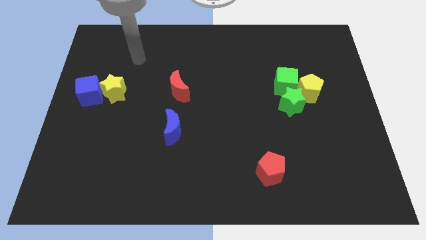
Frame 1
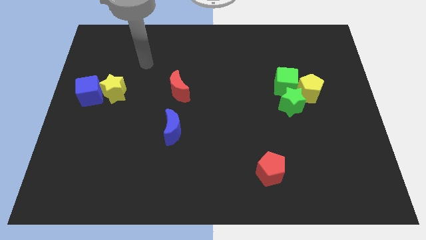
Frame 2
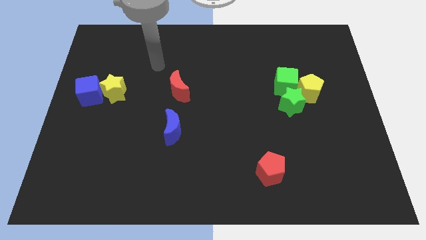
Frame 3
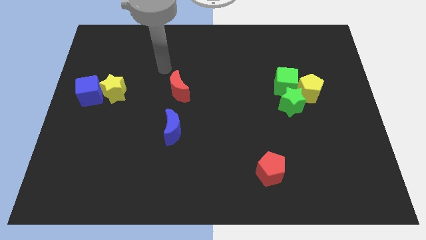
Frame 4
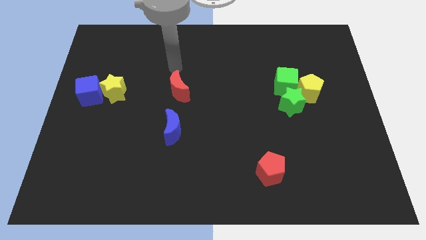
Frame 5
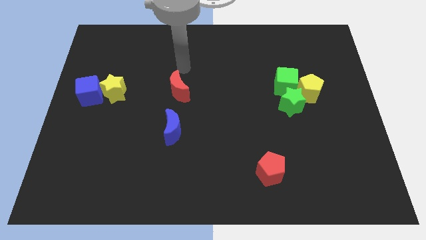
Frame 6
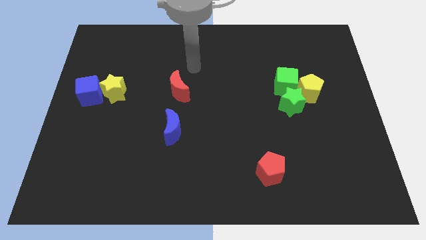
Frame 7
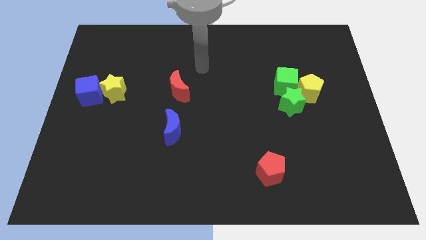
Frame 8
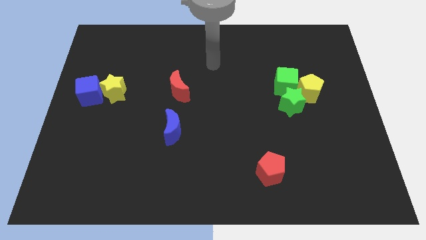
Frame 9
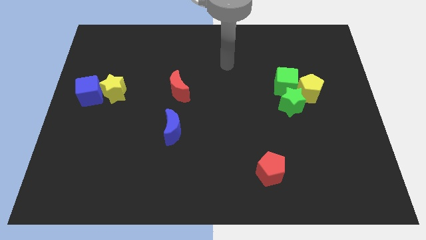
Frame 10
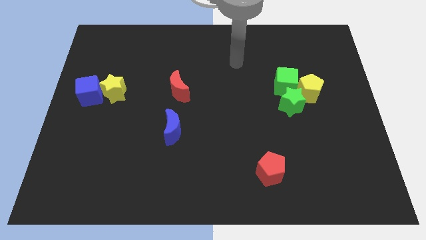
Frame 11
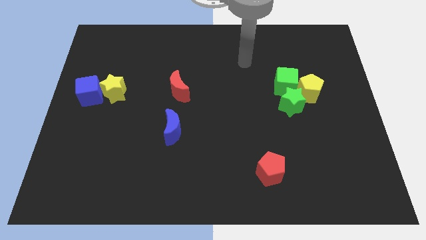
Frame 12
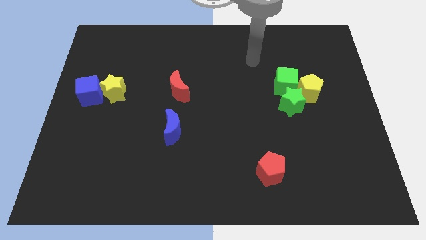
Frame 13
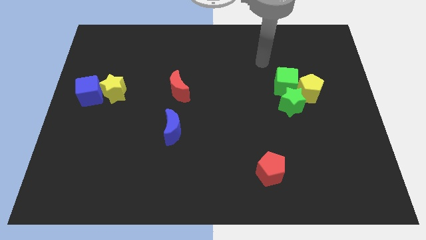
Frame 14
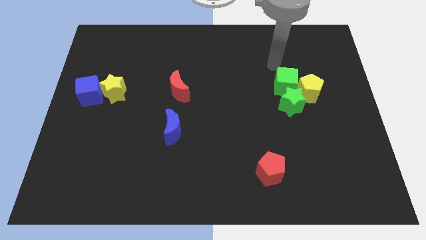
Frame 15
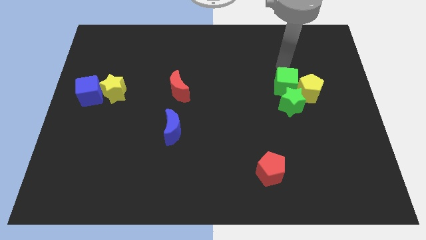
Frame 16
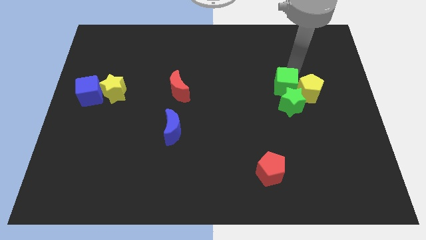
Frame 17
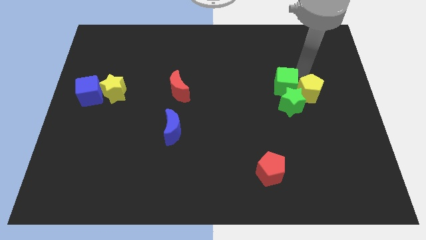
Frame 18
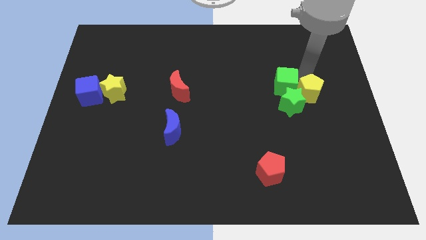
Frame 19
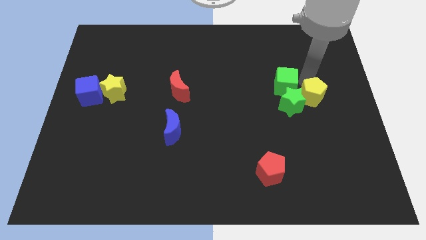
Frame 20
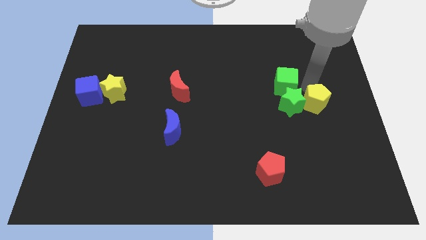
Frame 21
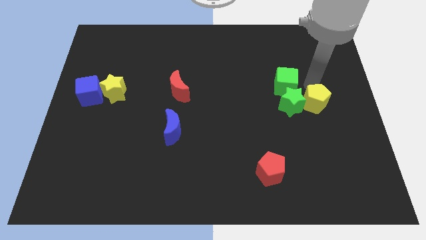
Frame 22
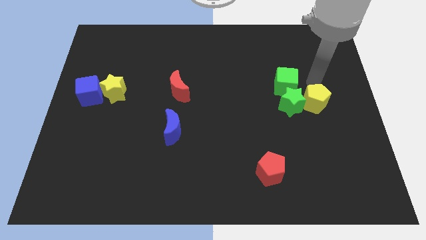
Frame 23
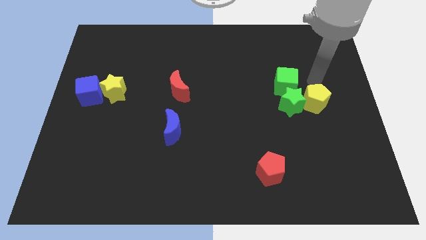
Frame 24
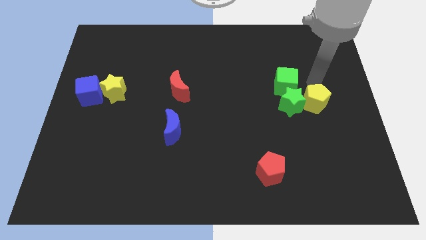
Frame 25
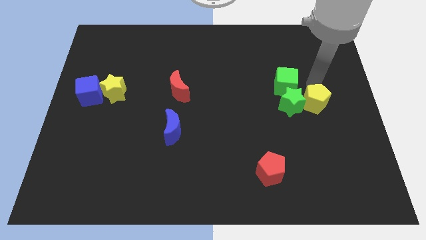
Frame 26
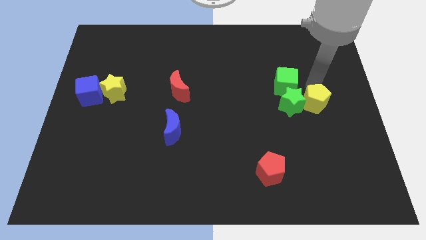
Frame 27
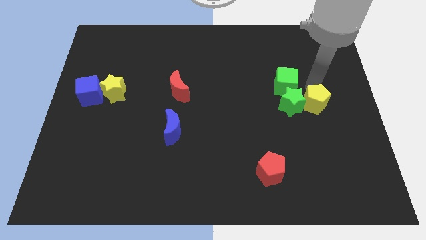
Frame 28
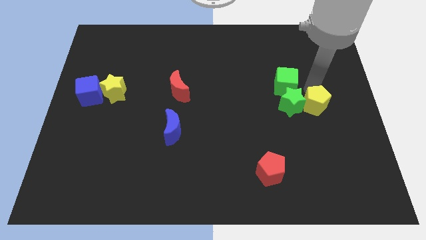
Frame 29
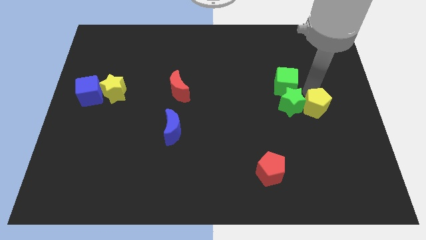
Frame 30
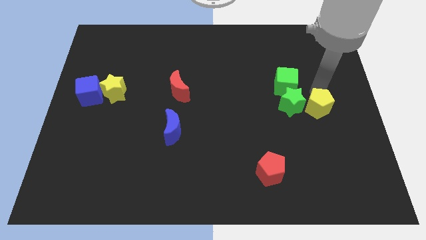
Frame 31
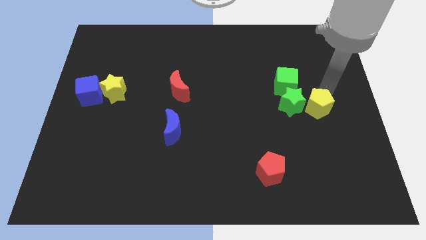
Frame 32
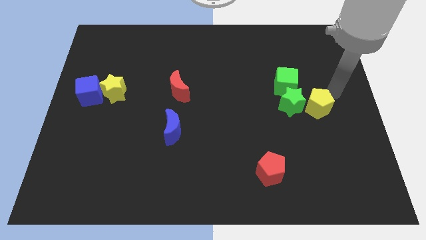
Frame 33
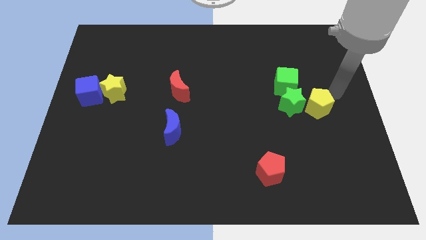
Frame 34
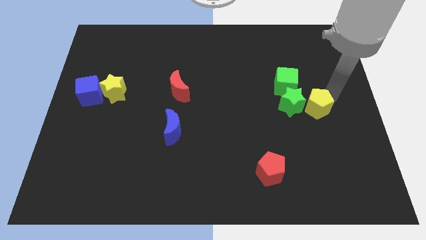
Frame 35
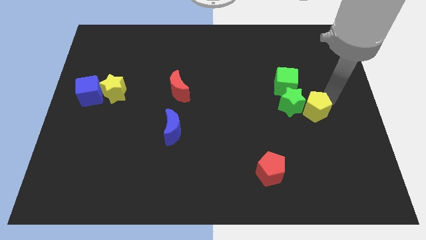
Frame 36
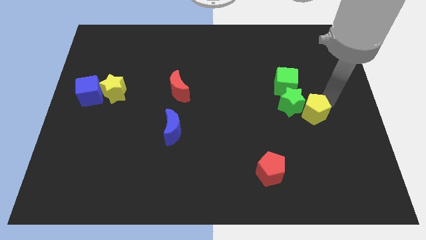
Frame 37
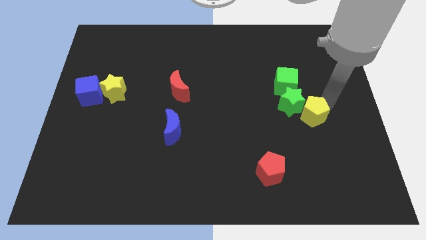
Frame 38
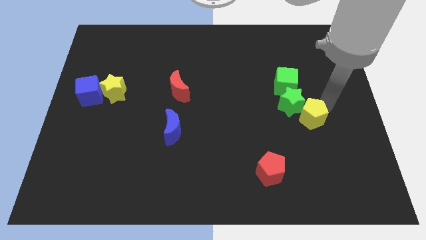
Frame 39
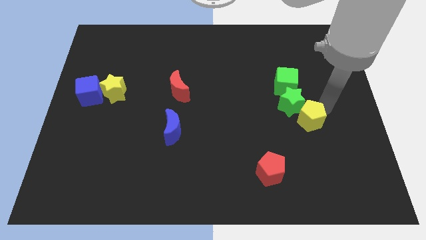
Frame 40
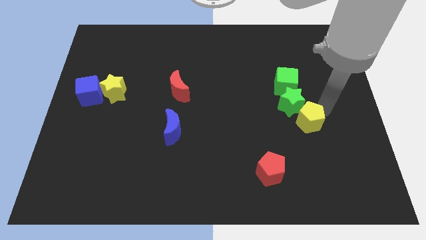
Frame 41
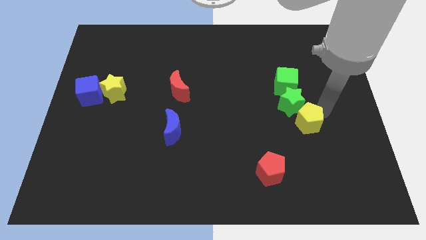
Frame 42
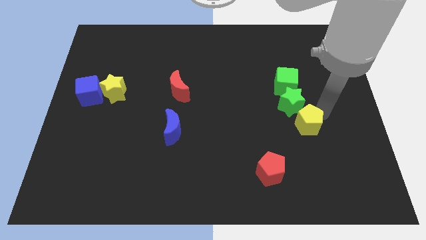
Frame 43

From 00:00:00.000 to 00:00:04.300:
slide the yellow pentagon a little downwards and then left

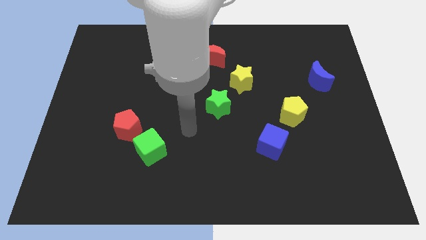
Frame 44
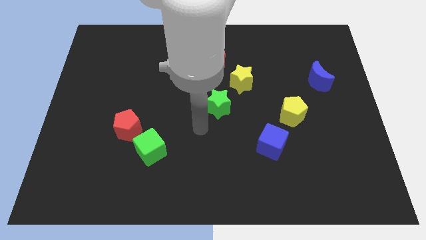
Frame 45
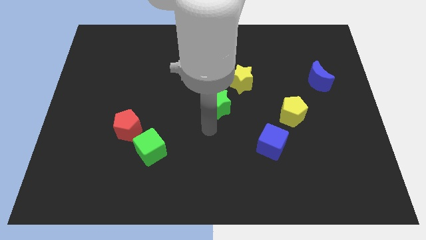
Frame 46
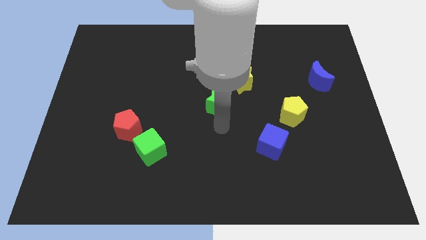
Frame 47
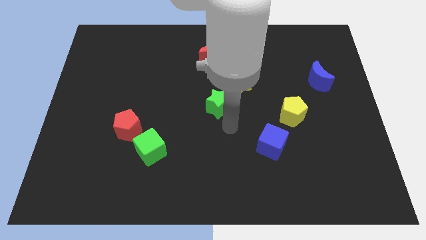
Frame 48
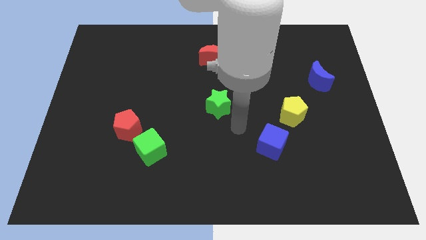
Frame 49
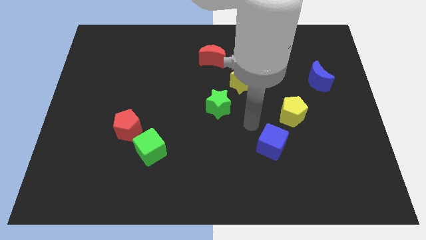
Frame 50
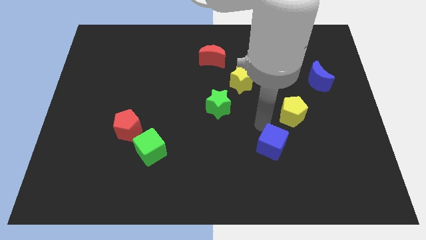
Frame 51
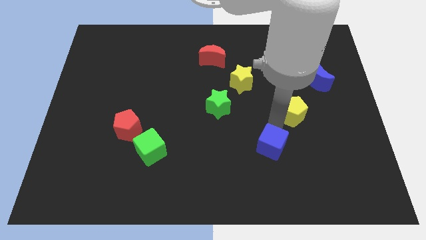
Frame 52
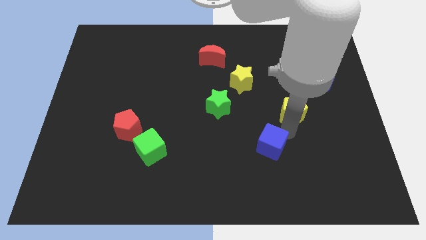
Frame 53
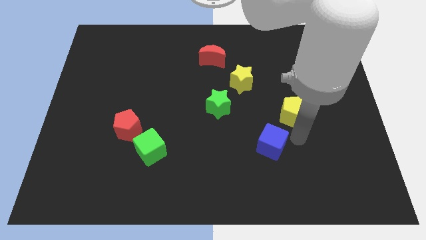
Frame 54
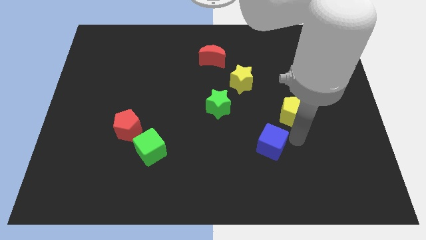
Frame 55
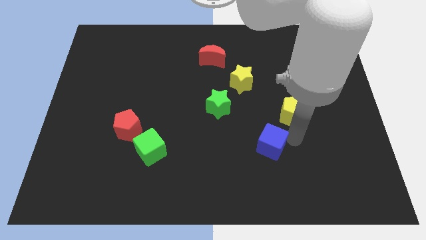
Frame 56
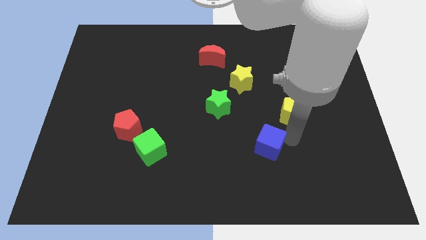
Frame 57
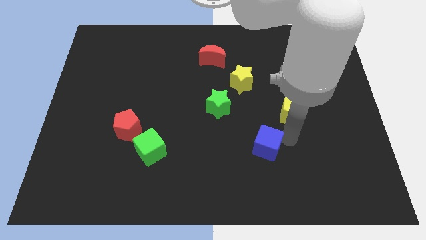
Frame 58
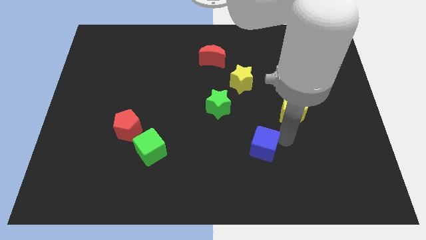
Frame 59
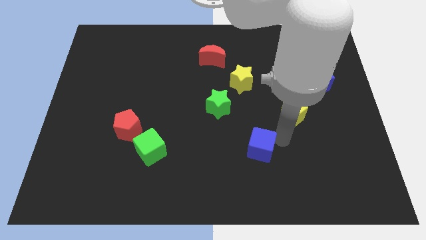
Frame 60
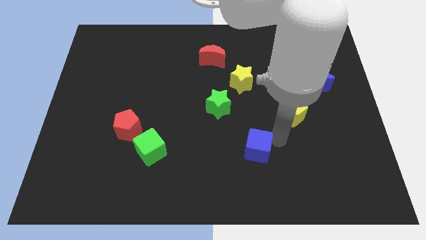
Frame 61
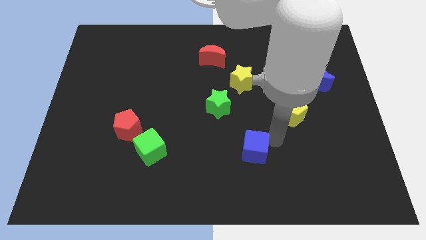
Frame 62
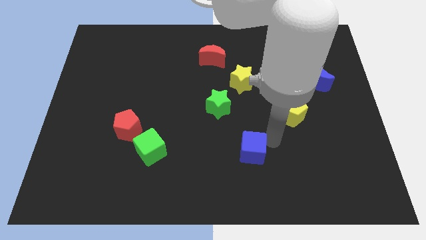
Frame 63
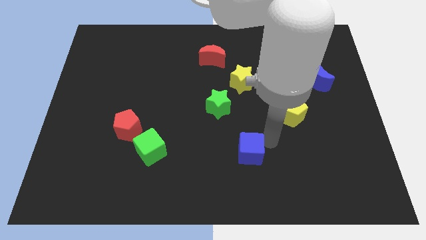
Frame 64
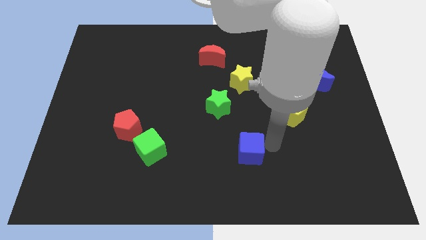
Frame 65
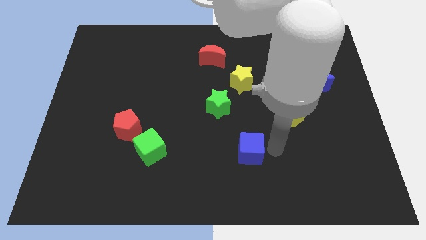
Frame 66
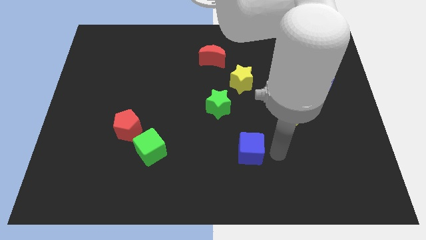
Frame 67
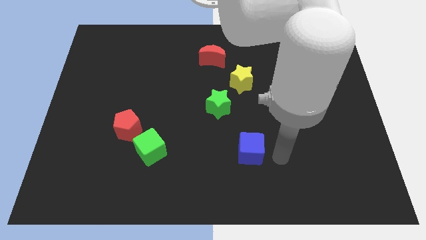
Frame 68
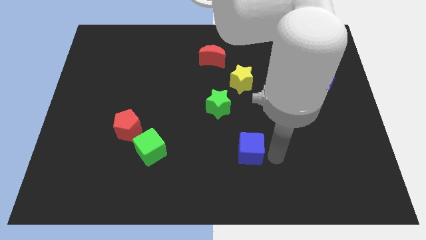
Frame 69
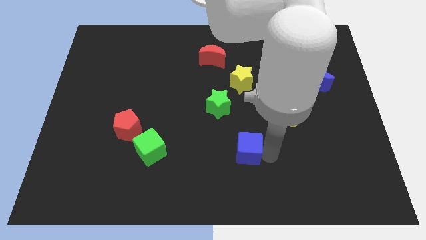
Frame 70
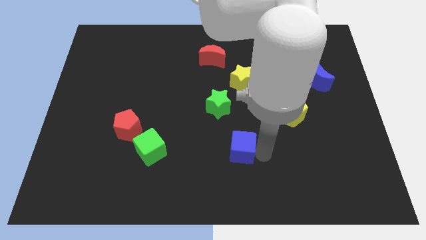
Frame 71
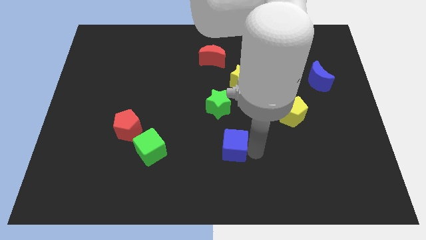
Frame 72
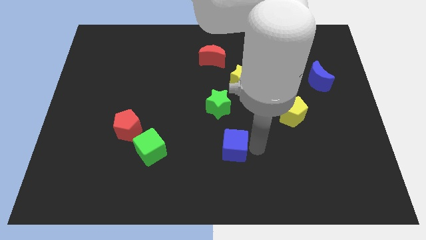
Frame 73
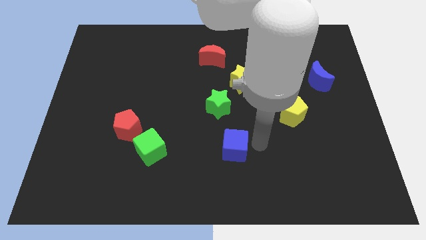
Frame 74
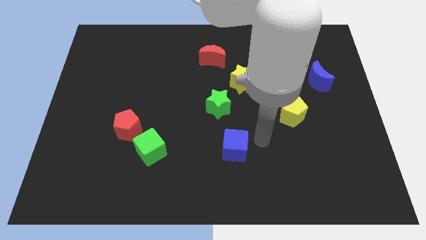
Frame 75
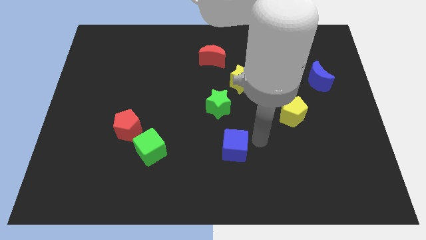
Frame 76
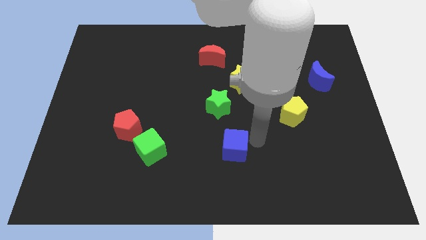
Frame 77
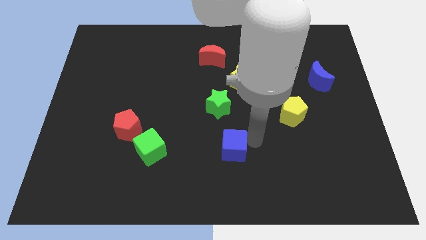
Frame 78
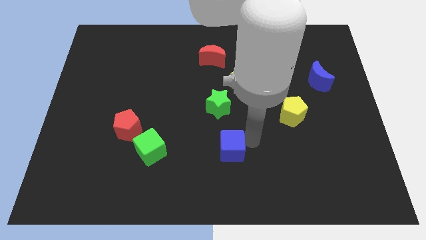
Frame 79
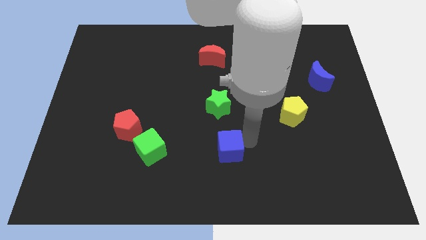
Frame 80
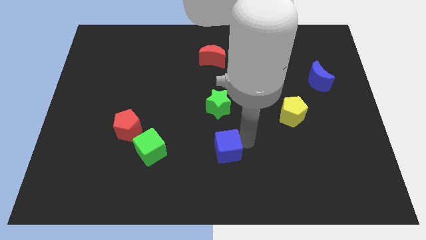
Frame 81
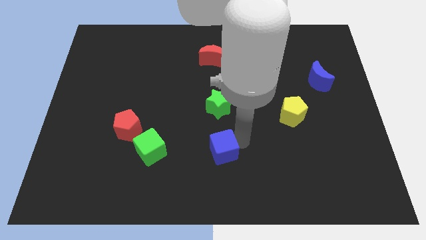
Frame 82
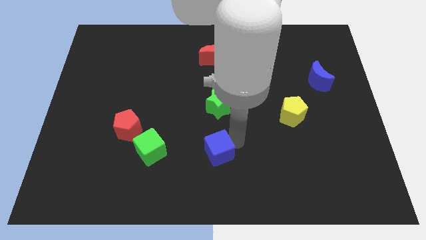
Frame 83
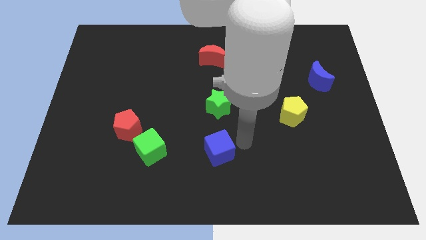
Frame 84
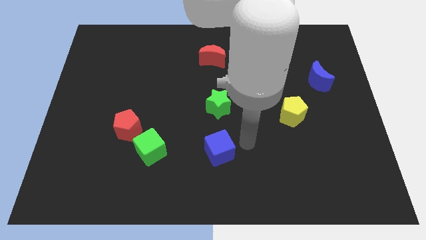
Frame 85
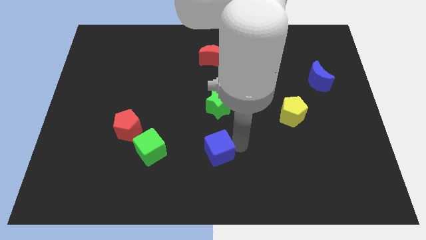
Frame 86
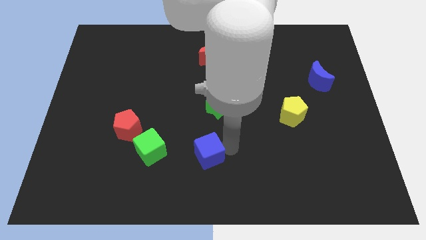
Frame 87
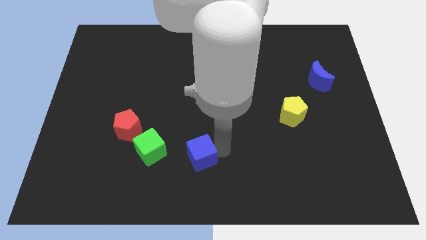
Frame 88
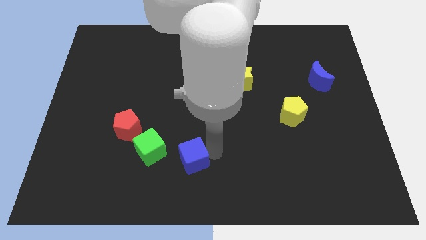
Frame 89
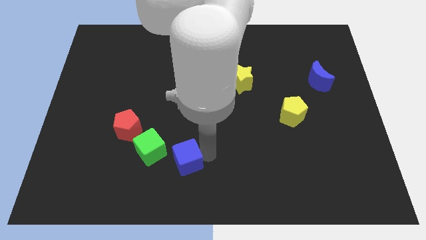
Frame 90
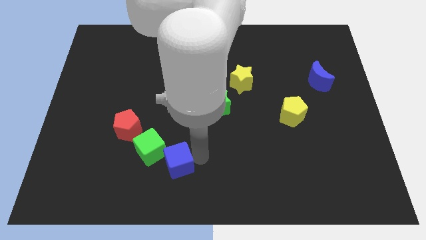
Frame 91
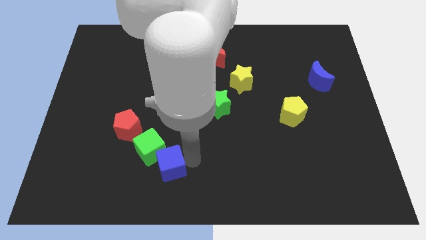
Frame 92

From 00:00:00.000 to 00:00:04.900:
push the blue cube to the left
